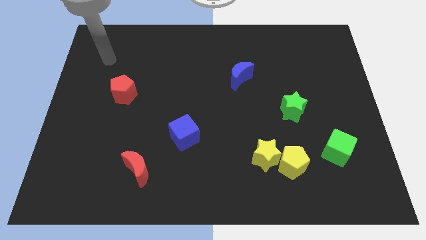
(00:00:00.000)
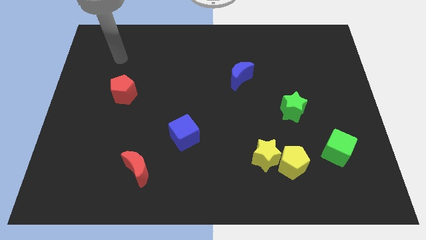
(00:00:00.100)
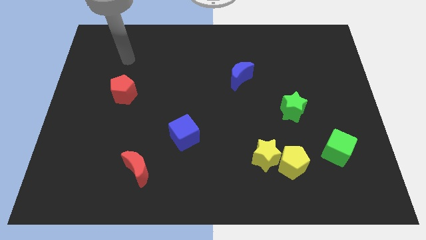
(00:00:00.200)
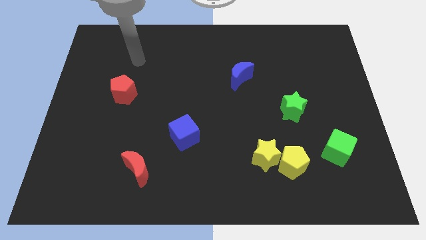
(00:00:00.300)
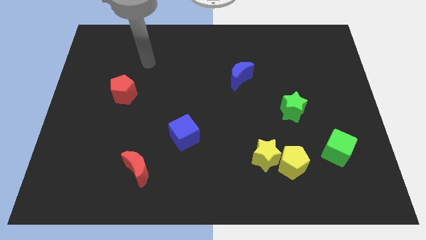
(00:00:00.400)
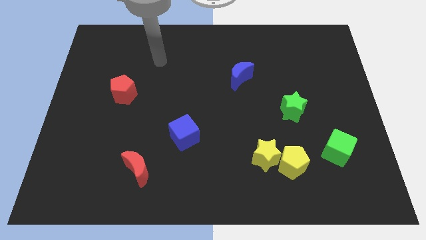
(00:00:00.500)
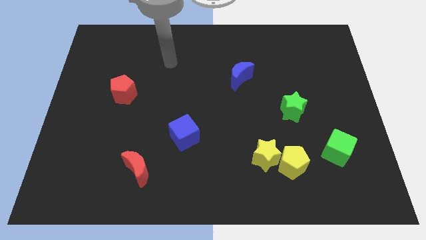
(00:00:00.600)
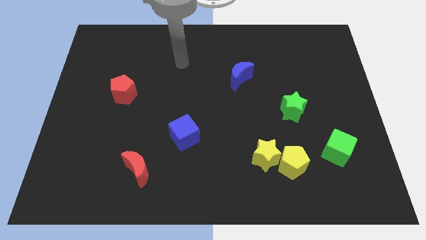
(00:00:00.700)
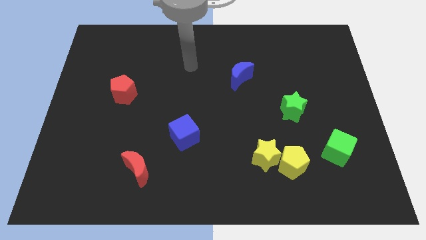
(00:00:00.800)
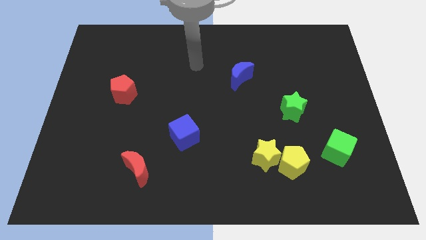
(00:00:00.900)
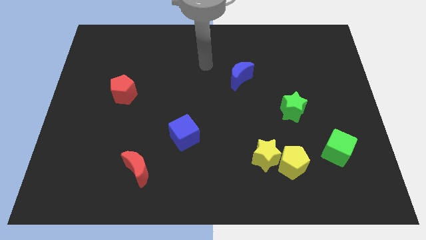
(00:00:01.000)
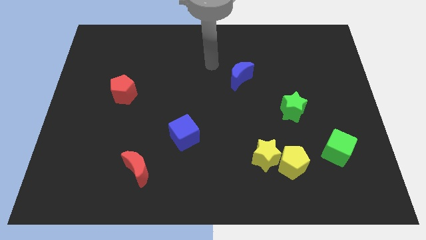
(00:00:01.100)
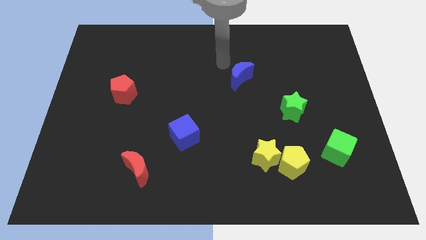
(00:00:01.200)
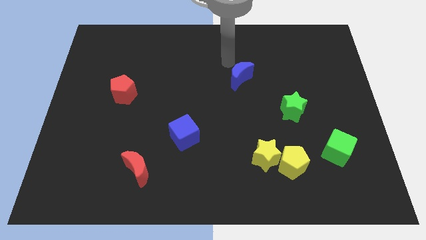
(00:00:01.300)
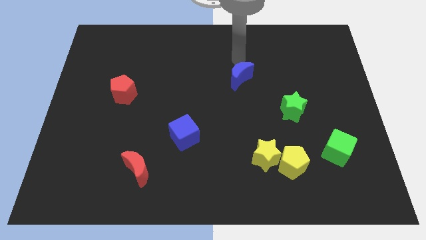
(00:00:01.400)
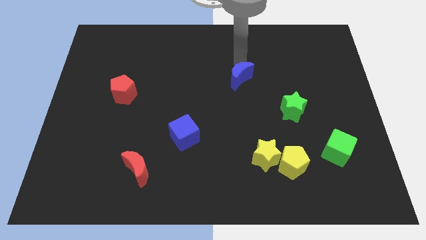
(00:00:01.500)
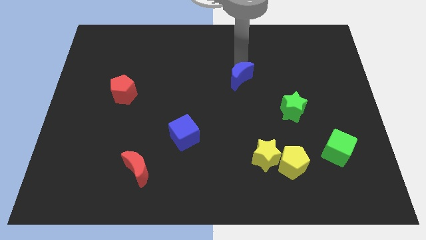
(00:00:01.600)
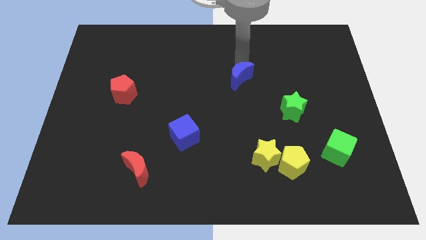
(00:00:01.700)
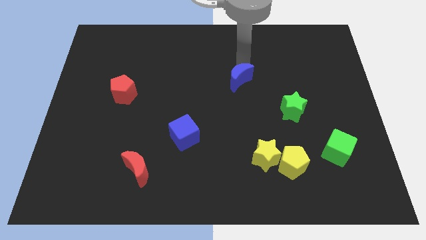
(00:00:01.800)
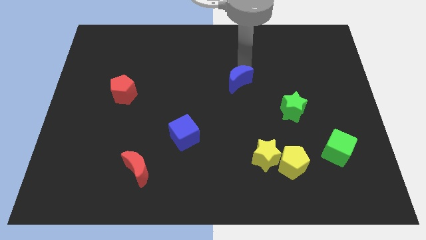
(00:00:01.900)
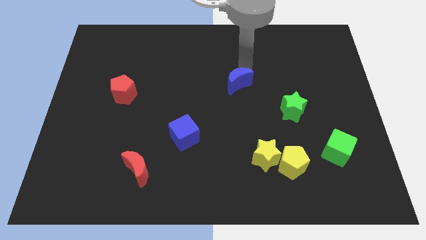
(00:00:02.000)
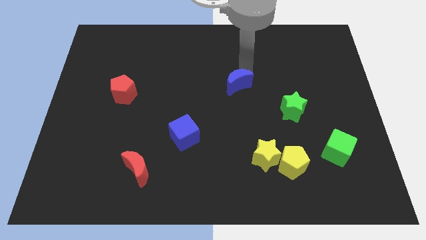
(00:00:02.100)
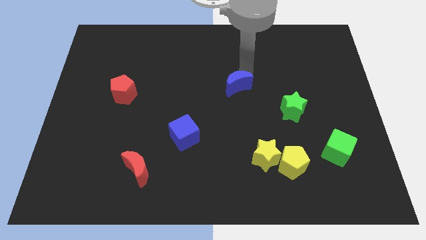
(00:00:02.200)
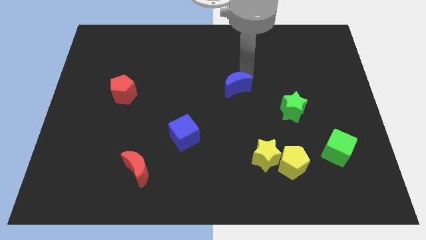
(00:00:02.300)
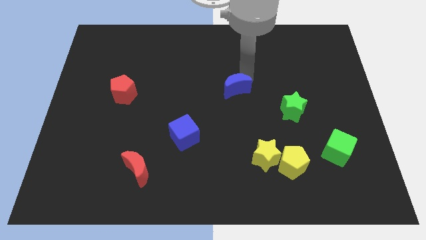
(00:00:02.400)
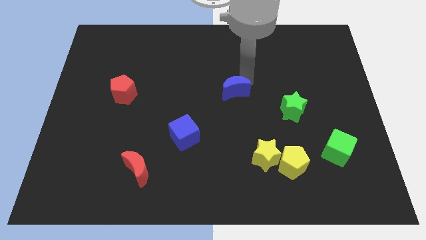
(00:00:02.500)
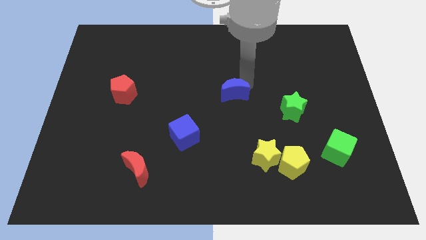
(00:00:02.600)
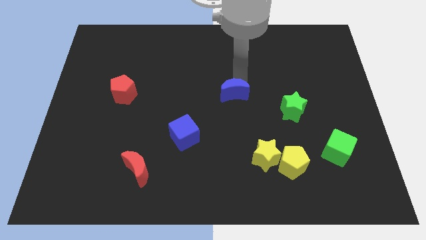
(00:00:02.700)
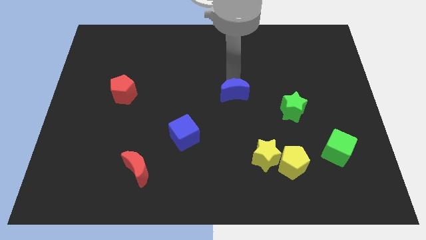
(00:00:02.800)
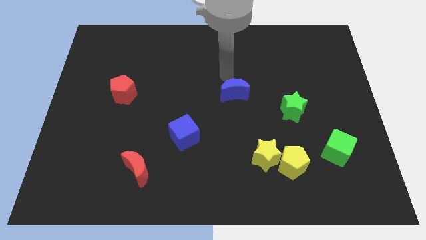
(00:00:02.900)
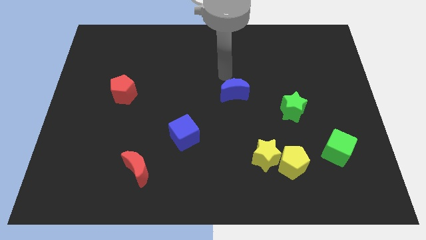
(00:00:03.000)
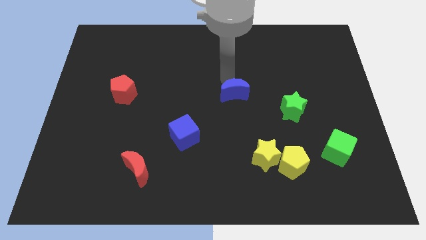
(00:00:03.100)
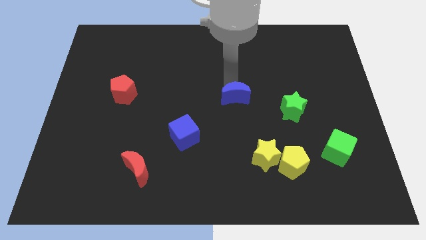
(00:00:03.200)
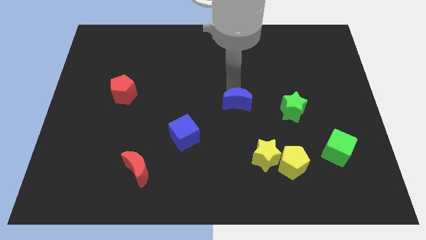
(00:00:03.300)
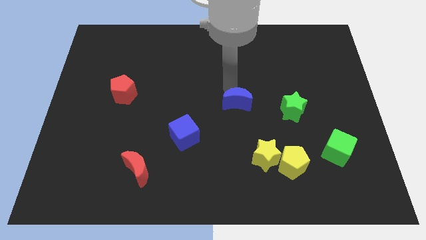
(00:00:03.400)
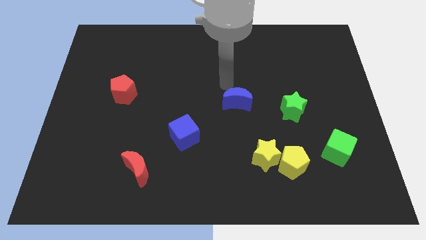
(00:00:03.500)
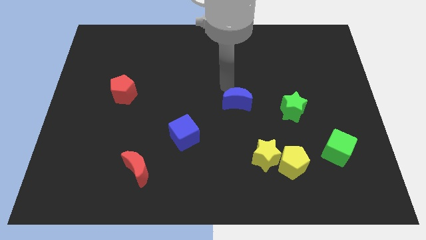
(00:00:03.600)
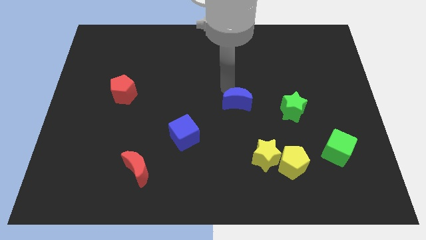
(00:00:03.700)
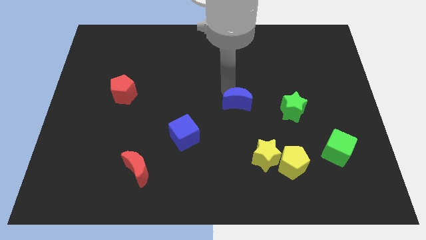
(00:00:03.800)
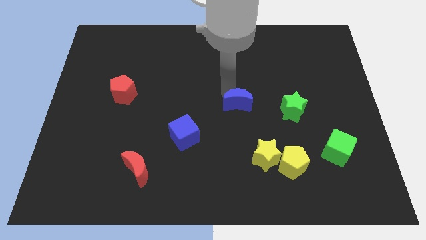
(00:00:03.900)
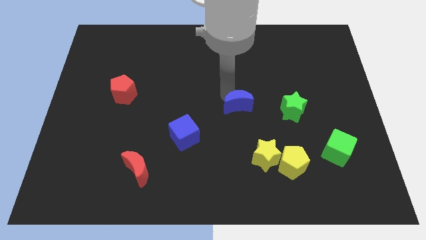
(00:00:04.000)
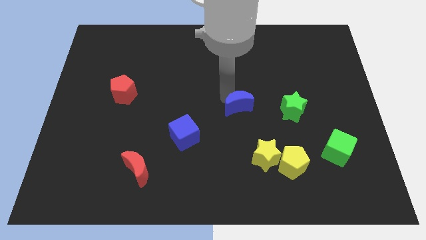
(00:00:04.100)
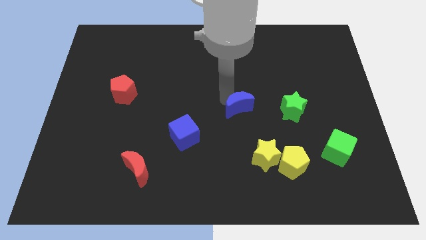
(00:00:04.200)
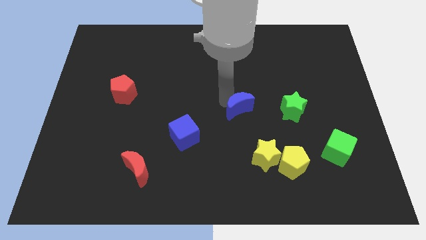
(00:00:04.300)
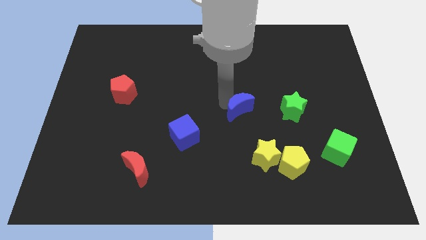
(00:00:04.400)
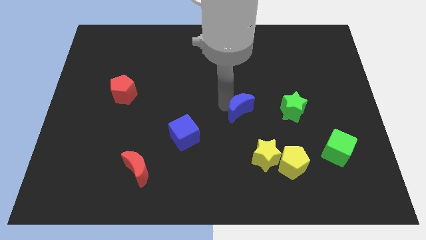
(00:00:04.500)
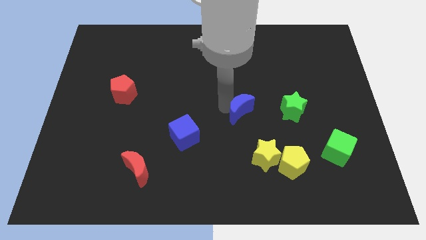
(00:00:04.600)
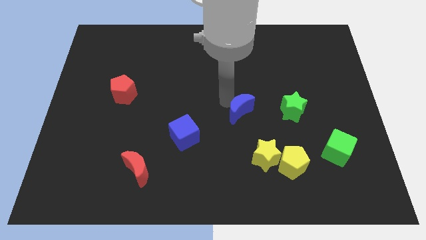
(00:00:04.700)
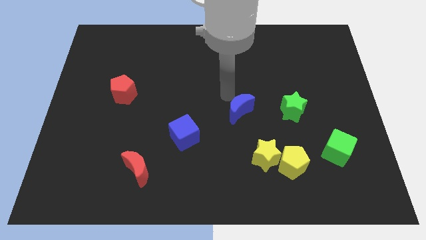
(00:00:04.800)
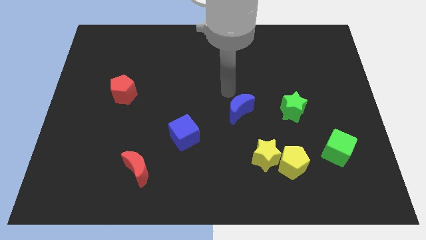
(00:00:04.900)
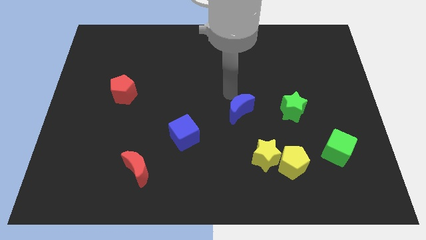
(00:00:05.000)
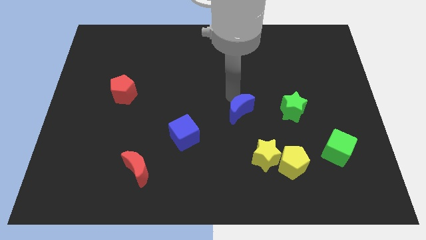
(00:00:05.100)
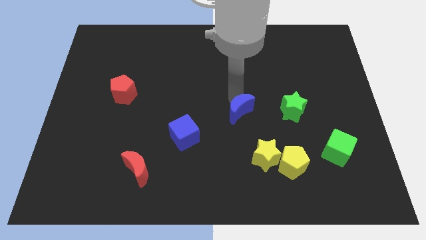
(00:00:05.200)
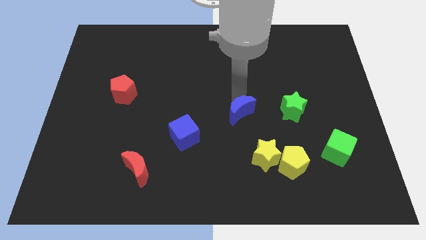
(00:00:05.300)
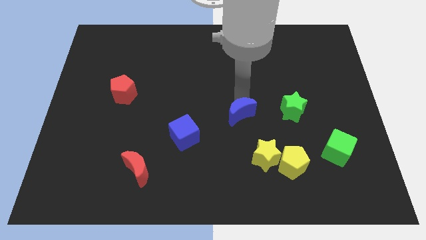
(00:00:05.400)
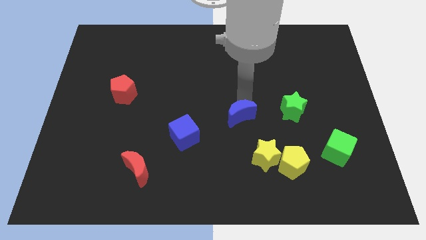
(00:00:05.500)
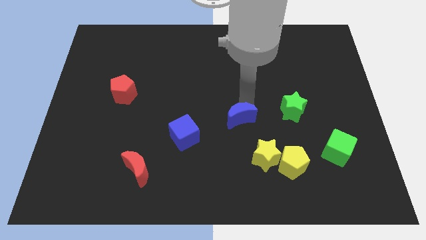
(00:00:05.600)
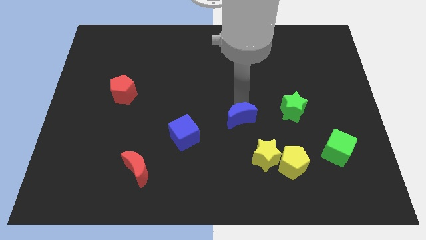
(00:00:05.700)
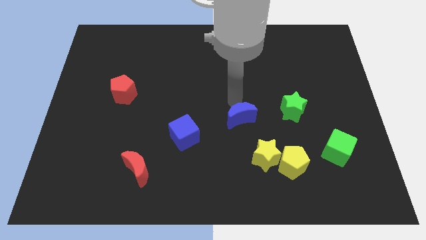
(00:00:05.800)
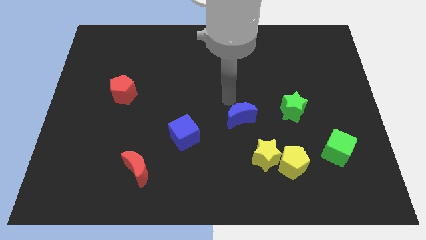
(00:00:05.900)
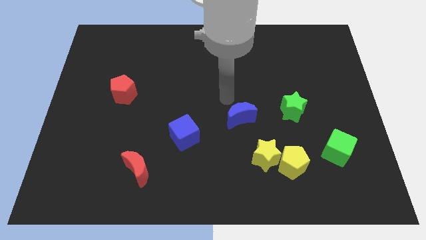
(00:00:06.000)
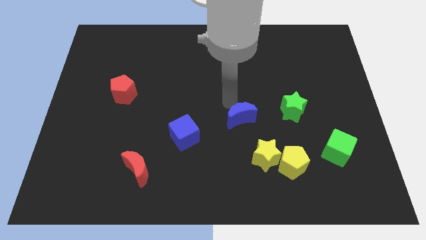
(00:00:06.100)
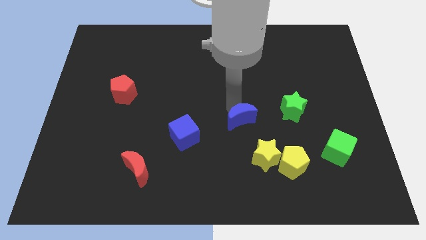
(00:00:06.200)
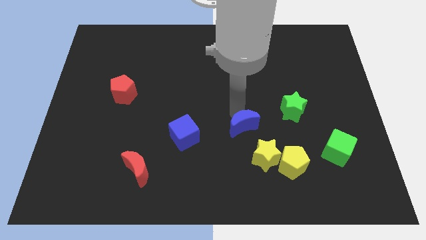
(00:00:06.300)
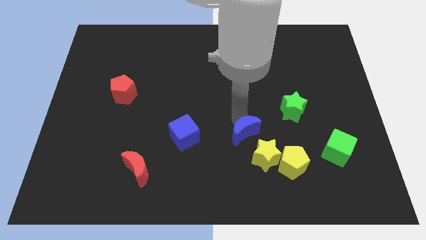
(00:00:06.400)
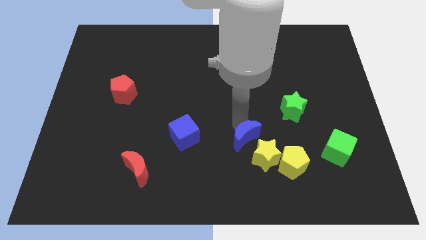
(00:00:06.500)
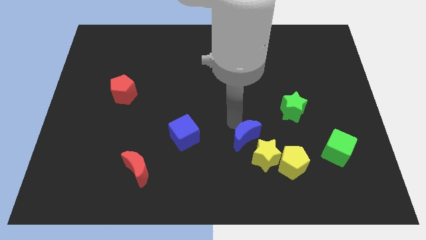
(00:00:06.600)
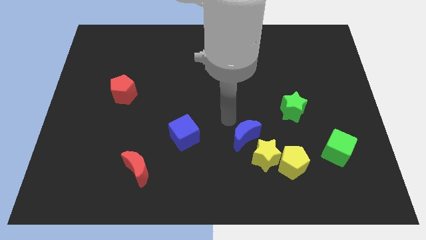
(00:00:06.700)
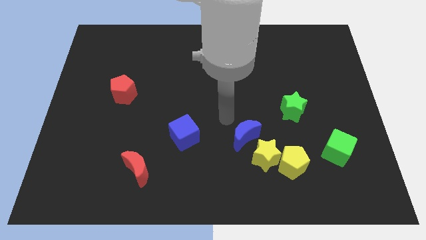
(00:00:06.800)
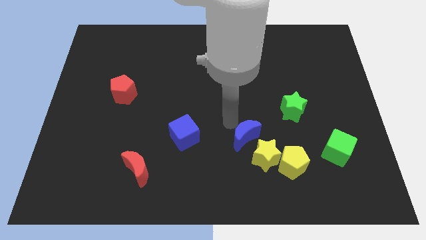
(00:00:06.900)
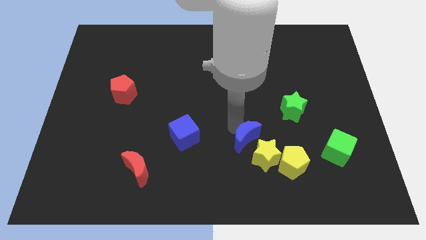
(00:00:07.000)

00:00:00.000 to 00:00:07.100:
push the blue moon close to the yellow star

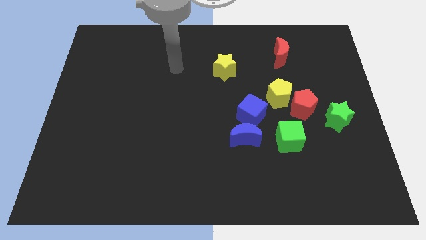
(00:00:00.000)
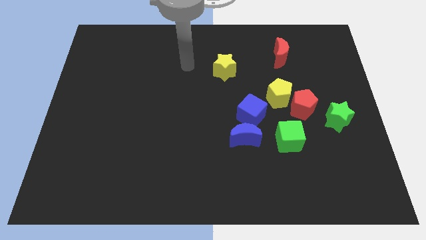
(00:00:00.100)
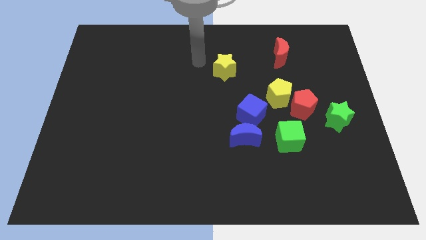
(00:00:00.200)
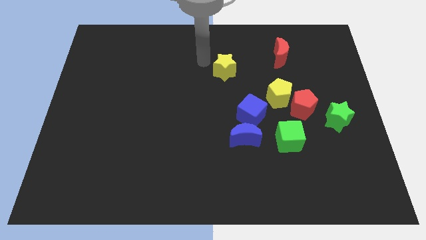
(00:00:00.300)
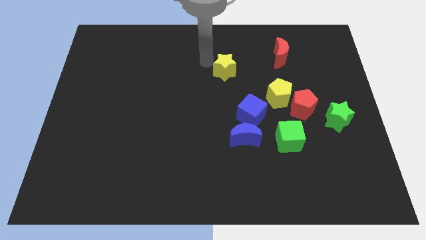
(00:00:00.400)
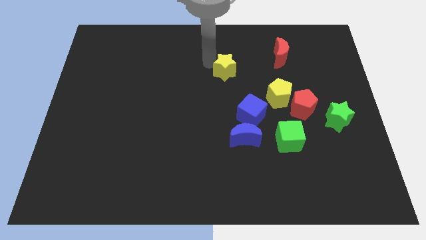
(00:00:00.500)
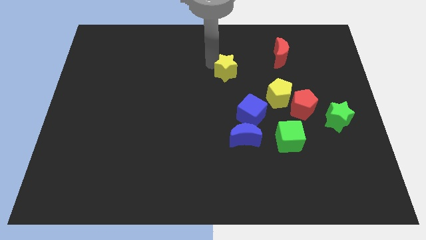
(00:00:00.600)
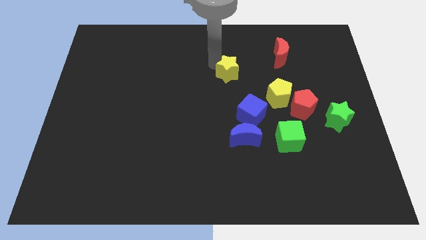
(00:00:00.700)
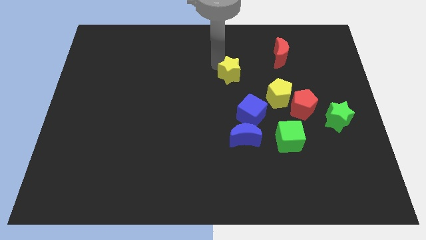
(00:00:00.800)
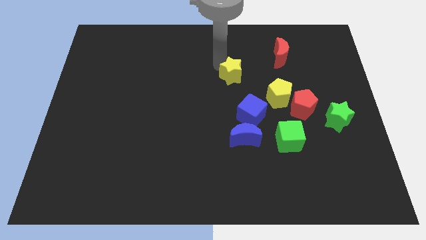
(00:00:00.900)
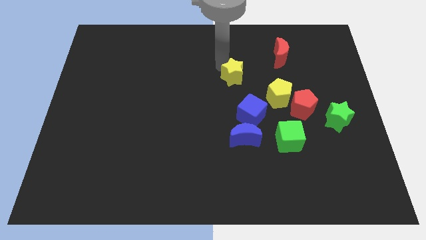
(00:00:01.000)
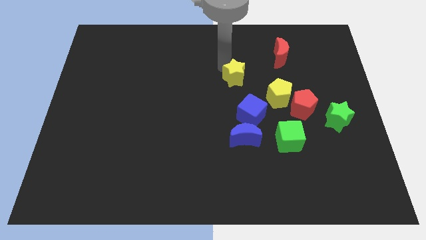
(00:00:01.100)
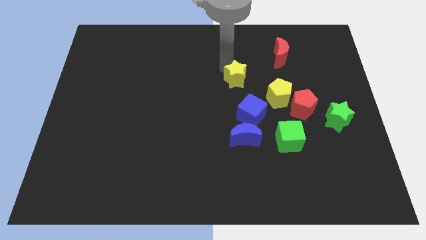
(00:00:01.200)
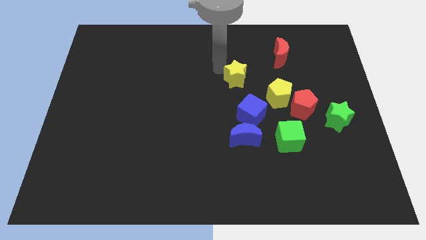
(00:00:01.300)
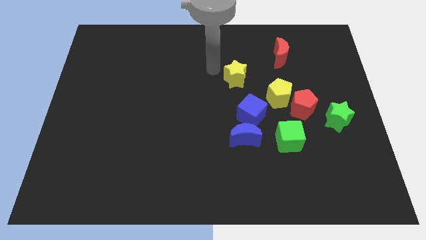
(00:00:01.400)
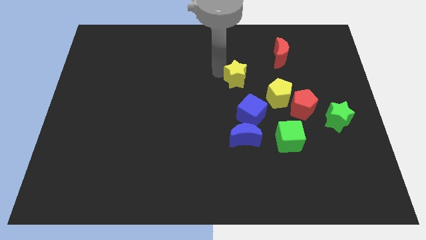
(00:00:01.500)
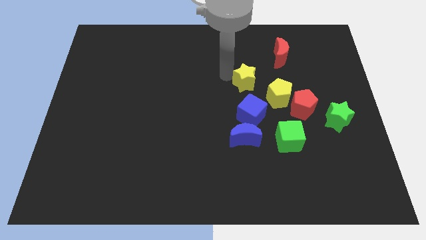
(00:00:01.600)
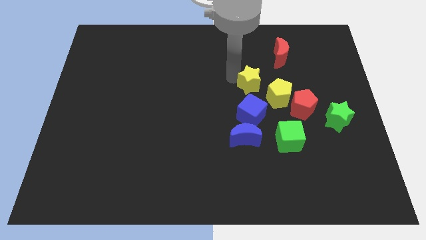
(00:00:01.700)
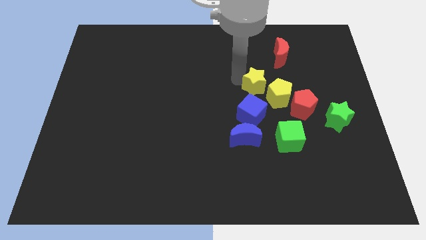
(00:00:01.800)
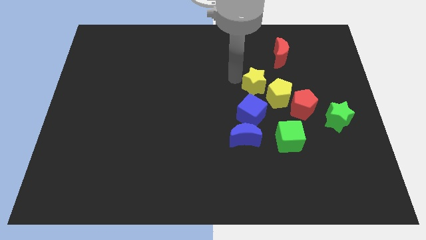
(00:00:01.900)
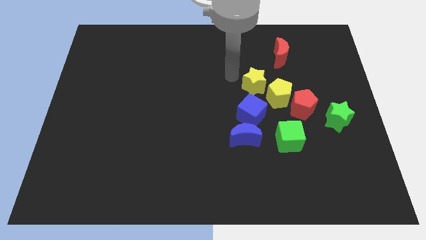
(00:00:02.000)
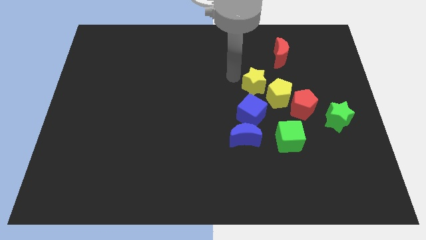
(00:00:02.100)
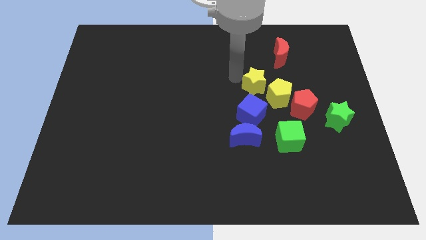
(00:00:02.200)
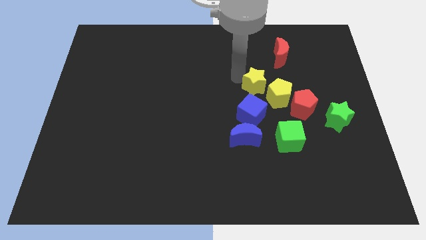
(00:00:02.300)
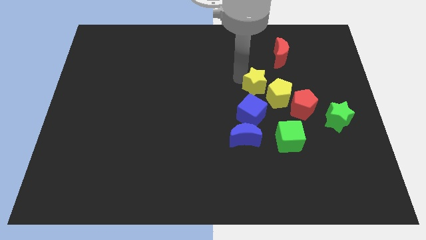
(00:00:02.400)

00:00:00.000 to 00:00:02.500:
move the yellow star close to the yellow pentagon
